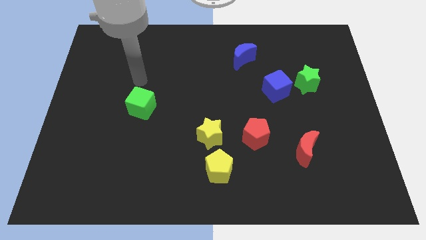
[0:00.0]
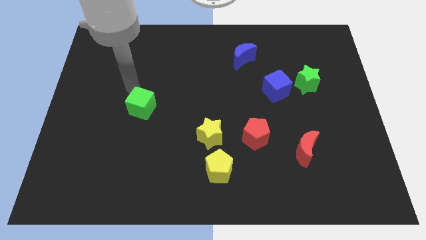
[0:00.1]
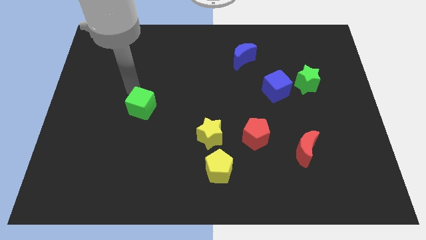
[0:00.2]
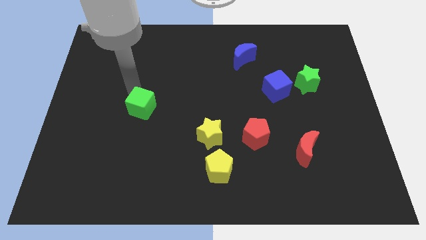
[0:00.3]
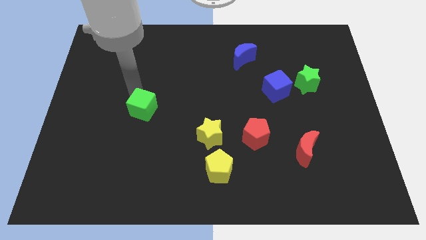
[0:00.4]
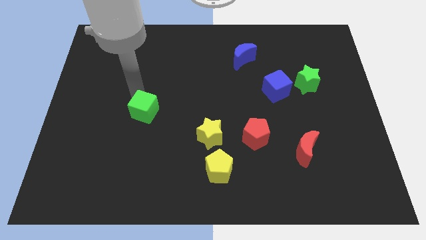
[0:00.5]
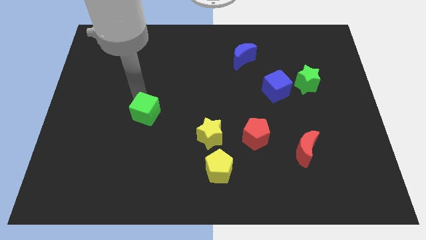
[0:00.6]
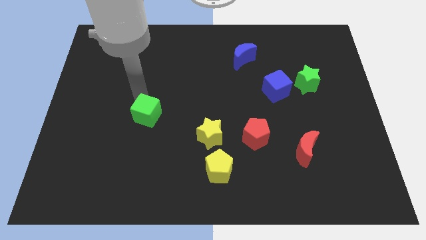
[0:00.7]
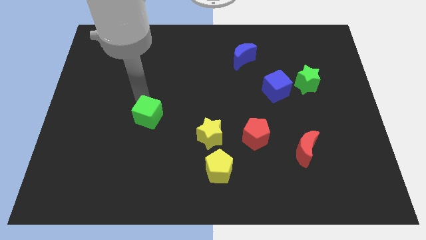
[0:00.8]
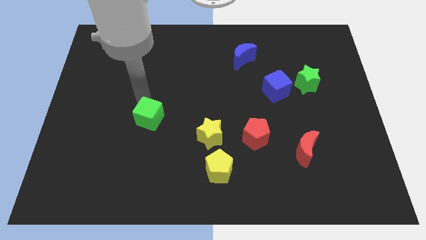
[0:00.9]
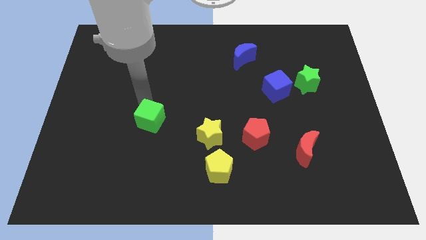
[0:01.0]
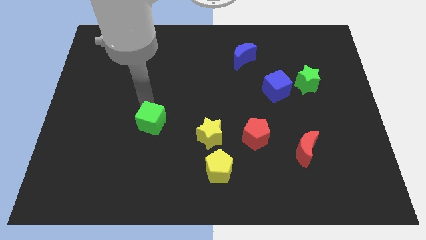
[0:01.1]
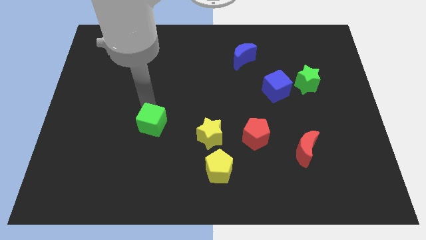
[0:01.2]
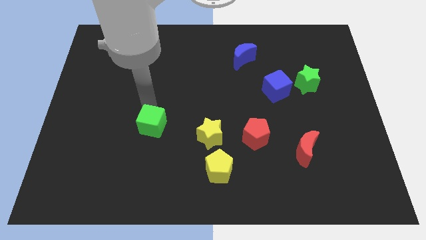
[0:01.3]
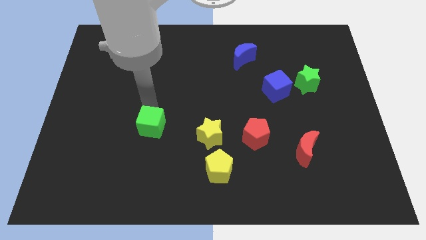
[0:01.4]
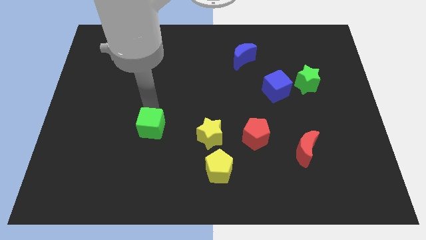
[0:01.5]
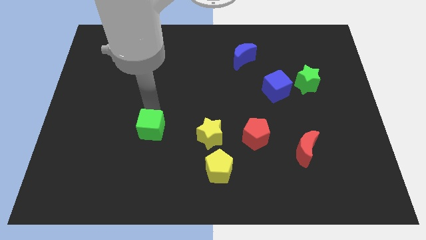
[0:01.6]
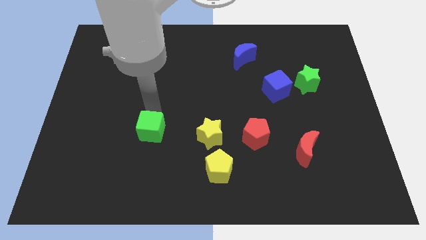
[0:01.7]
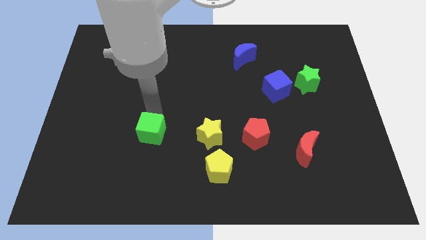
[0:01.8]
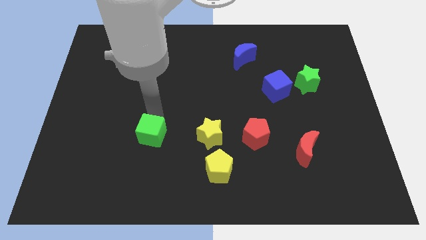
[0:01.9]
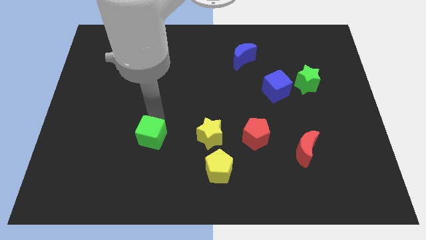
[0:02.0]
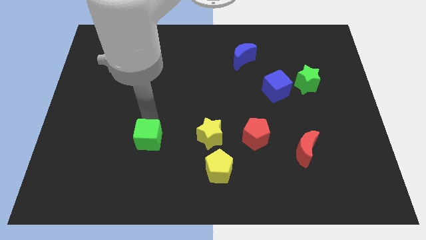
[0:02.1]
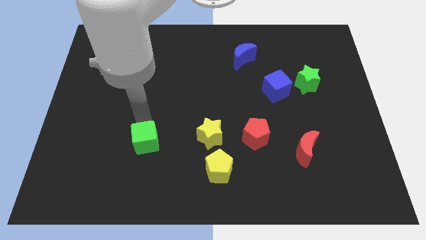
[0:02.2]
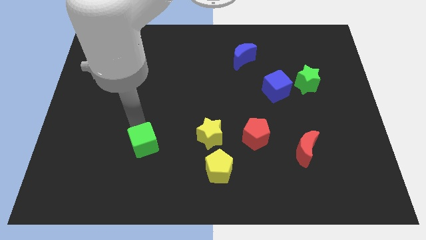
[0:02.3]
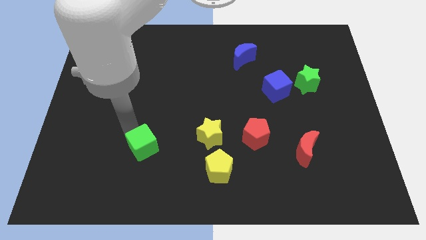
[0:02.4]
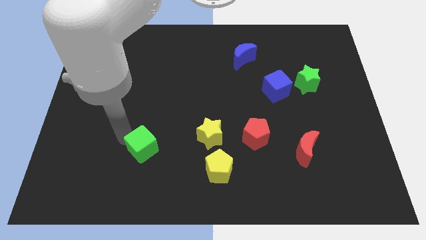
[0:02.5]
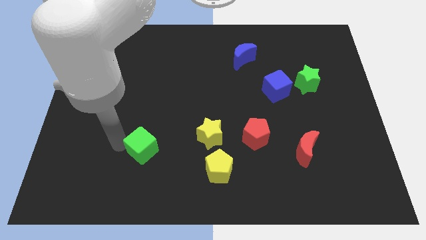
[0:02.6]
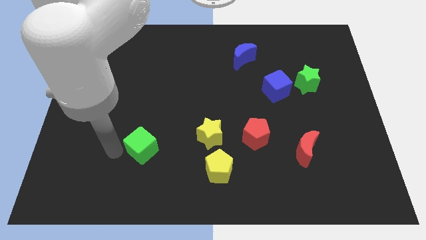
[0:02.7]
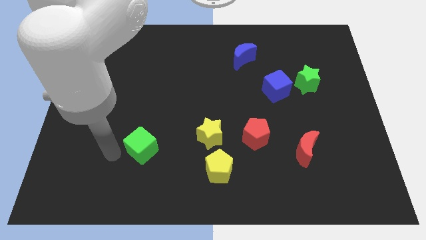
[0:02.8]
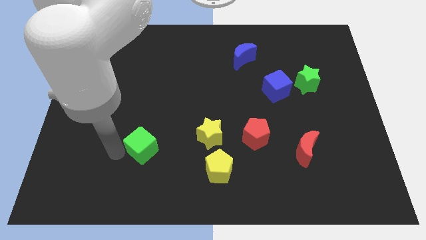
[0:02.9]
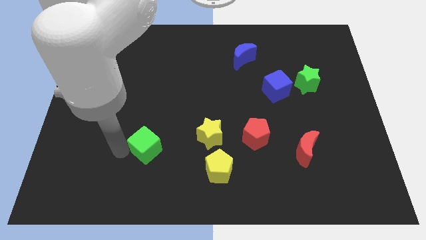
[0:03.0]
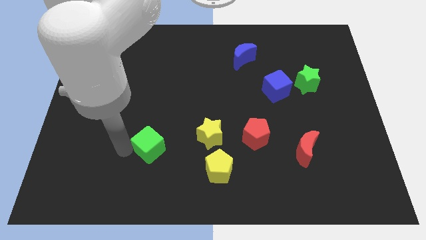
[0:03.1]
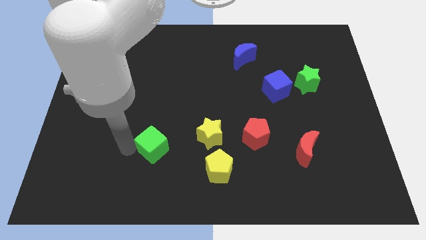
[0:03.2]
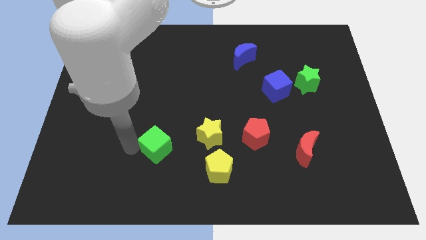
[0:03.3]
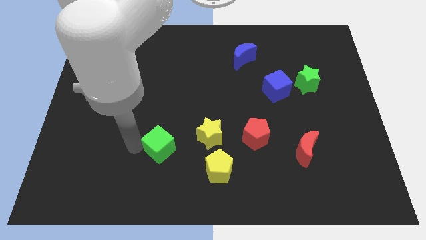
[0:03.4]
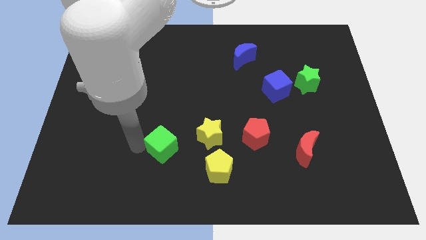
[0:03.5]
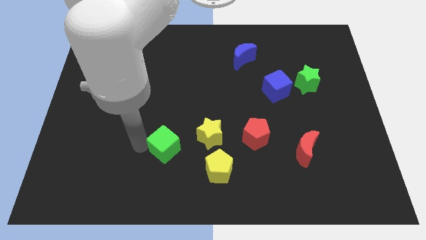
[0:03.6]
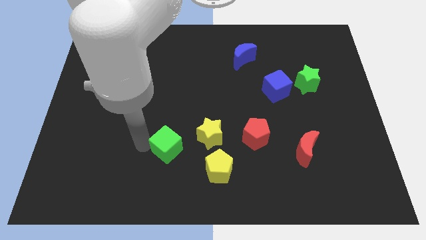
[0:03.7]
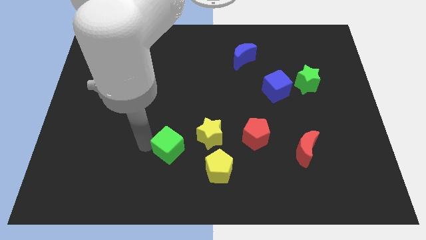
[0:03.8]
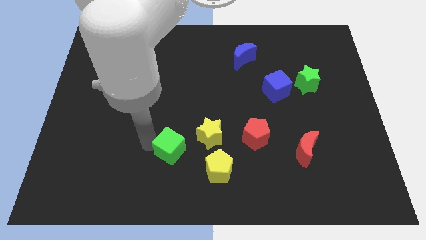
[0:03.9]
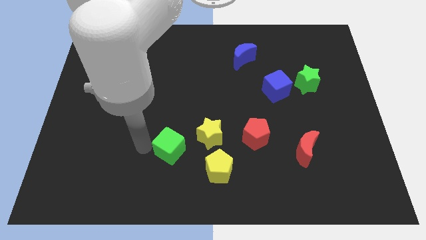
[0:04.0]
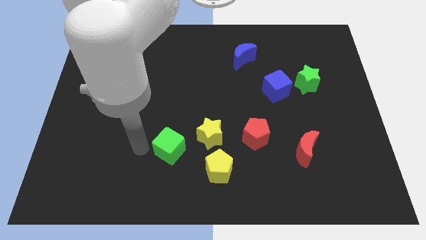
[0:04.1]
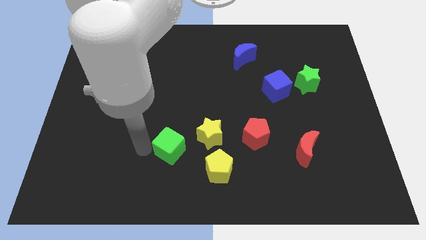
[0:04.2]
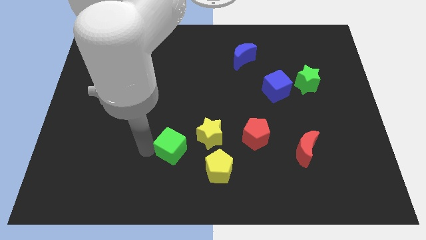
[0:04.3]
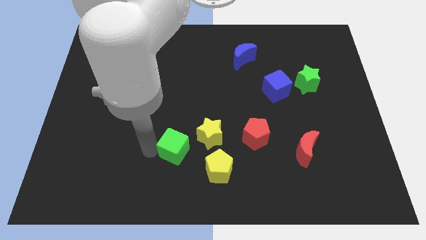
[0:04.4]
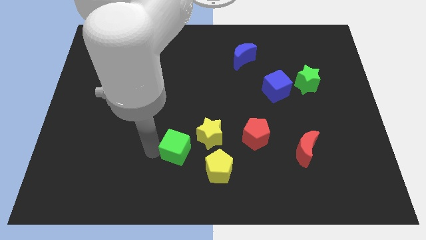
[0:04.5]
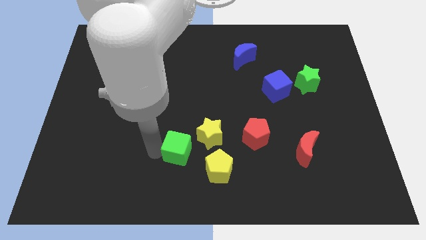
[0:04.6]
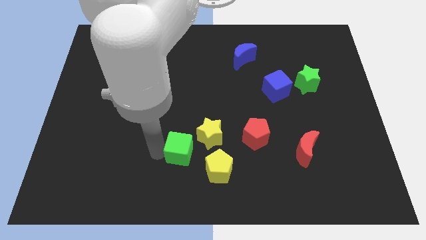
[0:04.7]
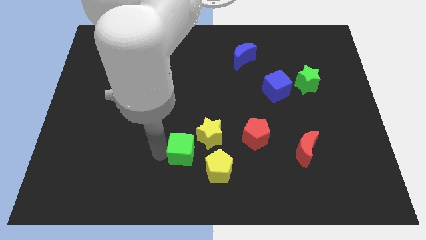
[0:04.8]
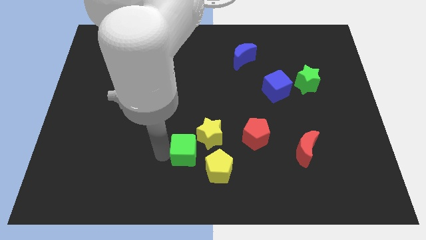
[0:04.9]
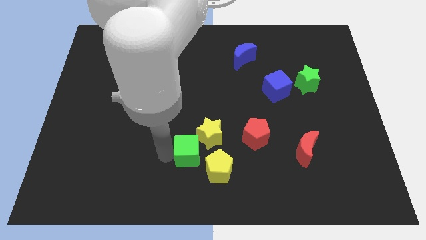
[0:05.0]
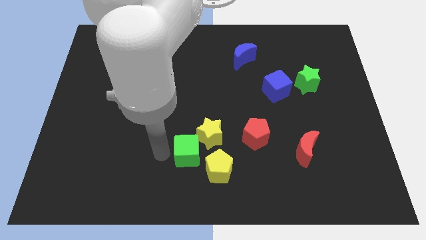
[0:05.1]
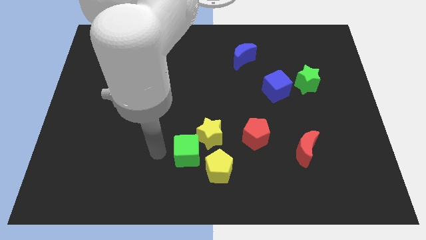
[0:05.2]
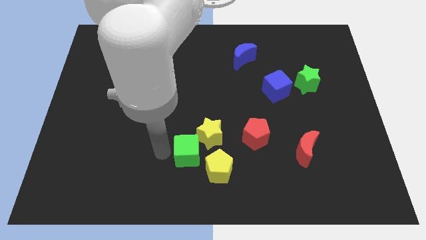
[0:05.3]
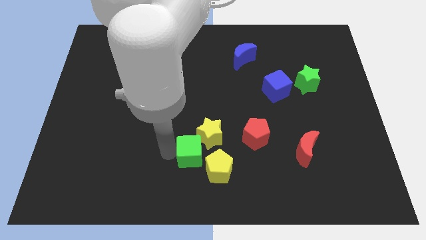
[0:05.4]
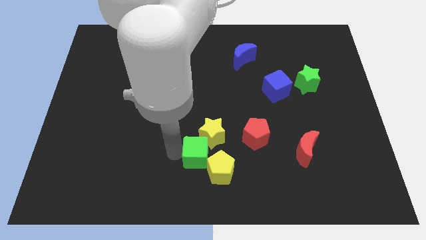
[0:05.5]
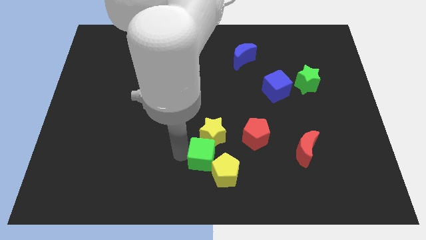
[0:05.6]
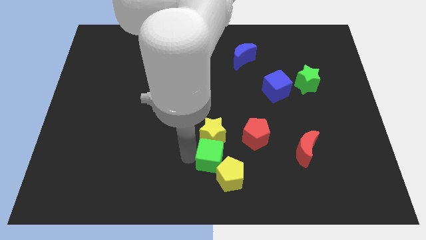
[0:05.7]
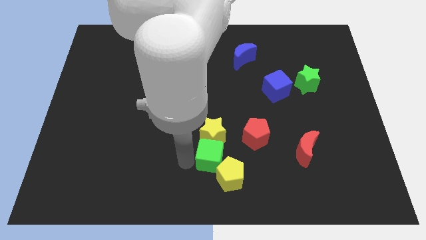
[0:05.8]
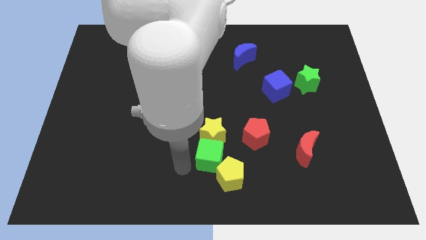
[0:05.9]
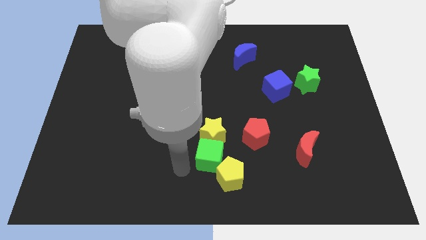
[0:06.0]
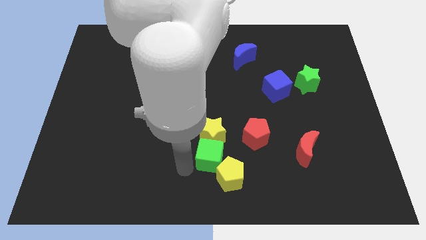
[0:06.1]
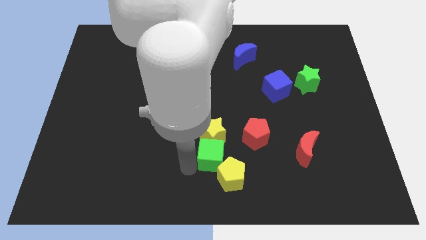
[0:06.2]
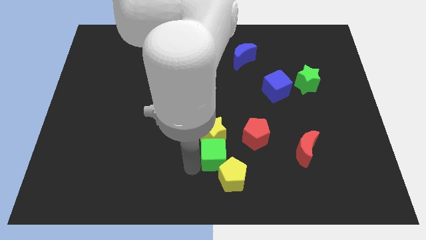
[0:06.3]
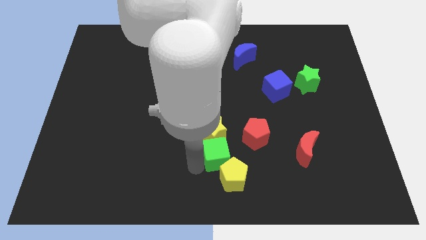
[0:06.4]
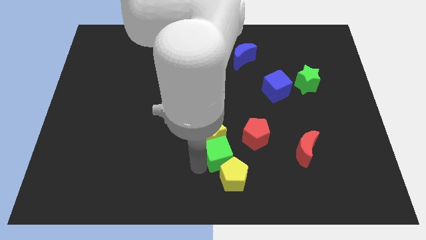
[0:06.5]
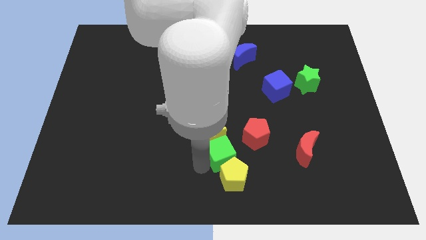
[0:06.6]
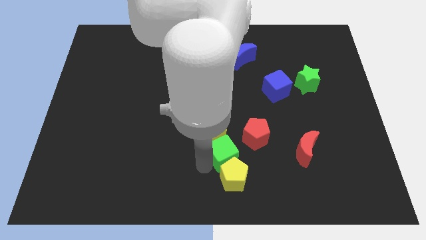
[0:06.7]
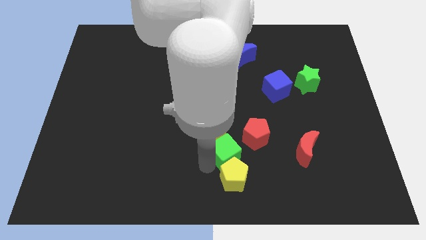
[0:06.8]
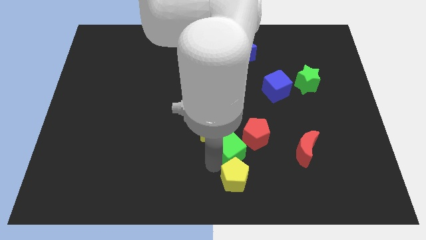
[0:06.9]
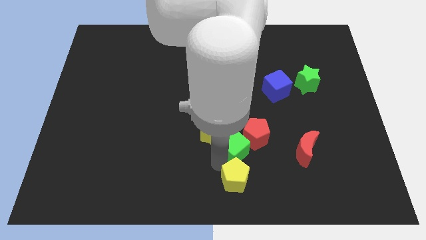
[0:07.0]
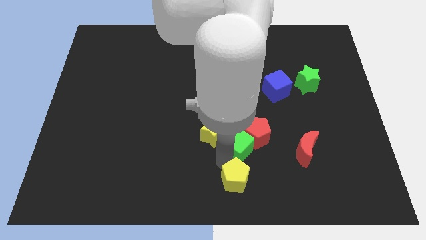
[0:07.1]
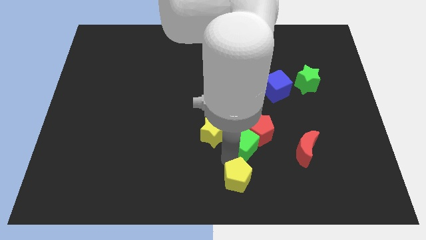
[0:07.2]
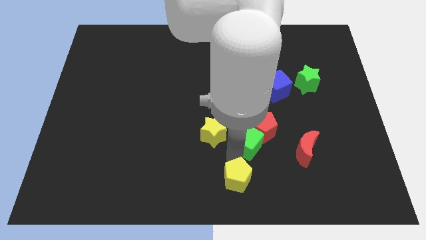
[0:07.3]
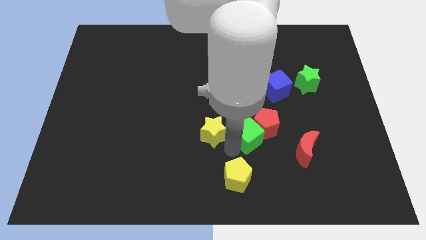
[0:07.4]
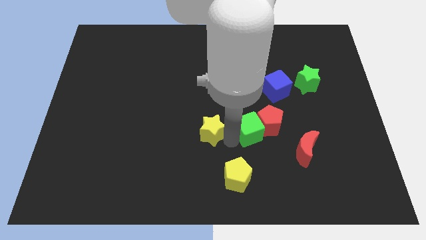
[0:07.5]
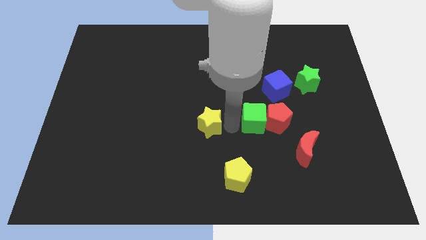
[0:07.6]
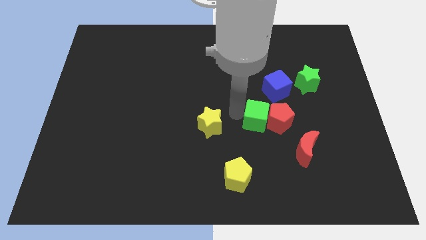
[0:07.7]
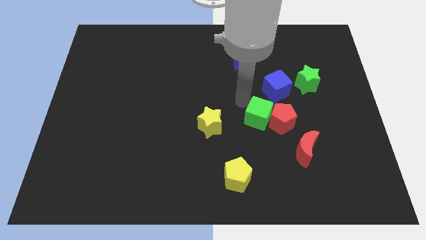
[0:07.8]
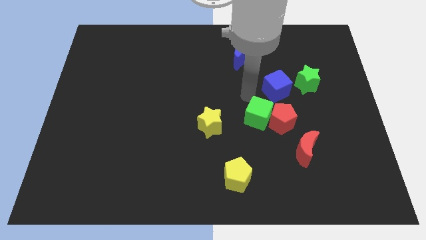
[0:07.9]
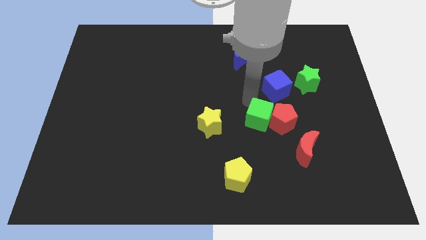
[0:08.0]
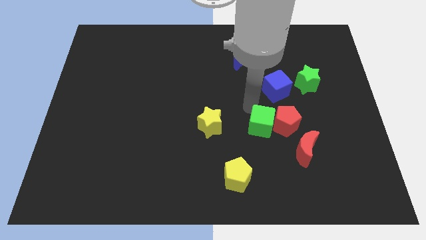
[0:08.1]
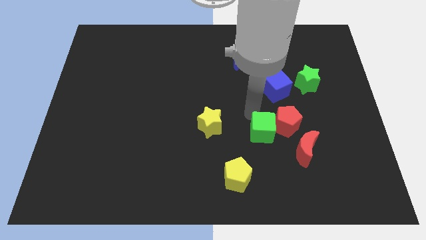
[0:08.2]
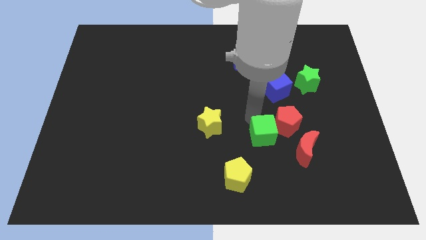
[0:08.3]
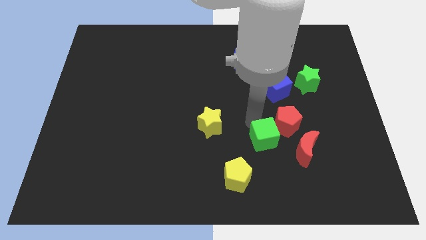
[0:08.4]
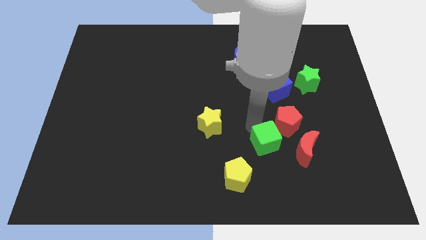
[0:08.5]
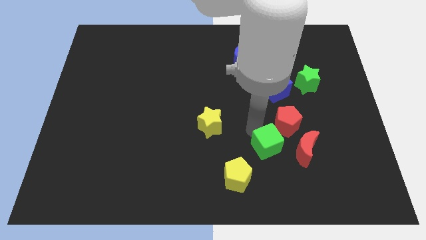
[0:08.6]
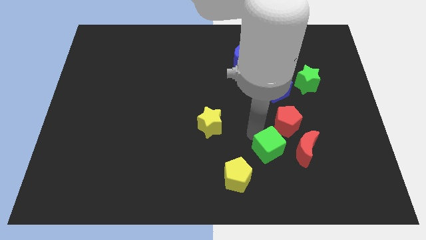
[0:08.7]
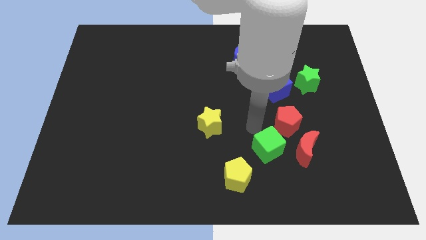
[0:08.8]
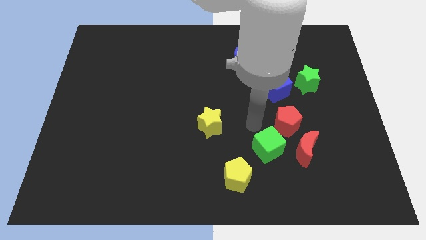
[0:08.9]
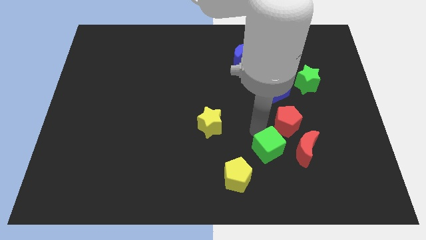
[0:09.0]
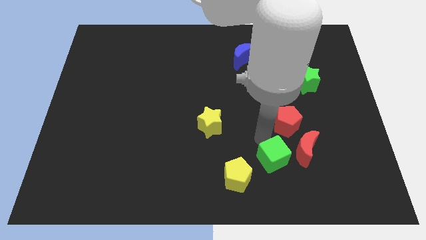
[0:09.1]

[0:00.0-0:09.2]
put the green cube right of the yellow pentagon
